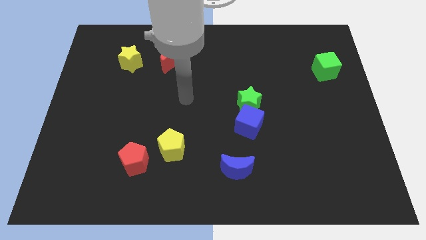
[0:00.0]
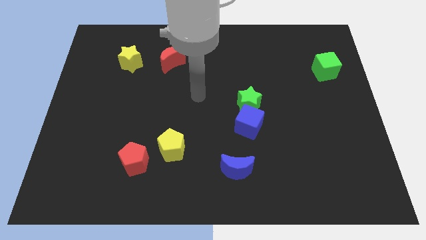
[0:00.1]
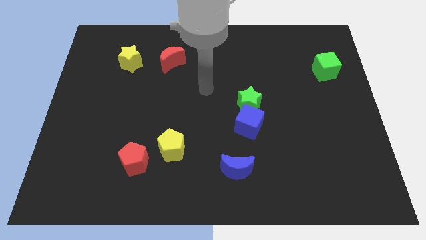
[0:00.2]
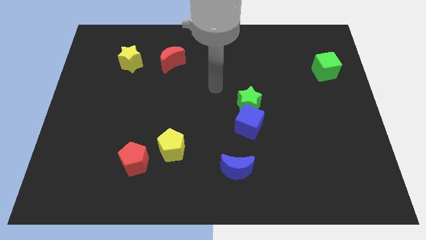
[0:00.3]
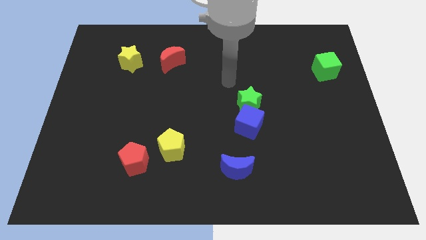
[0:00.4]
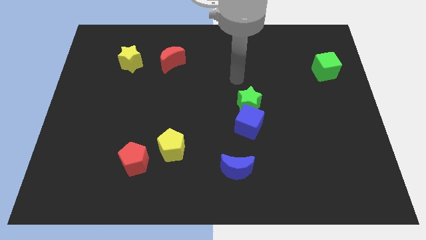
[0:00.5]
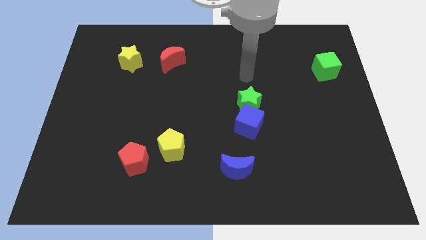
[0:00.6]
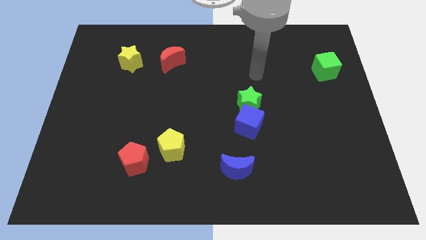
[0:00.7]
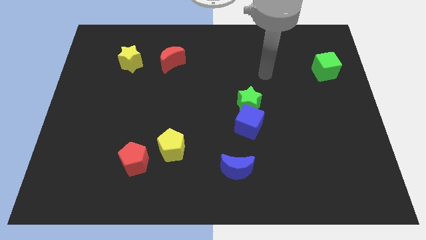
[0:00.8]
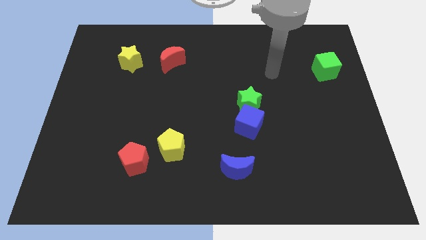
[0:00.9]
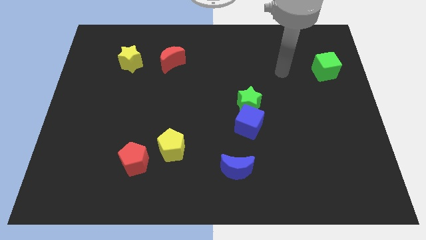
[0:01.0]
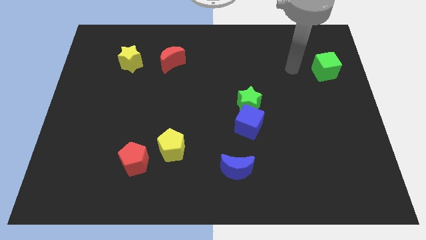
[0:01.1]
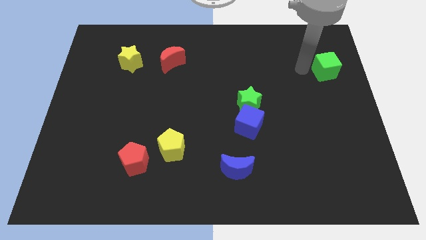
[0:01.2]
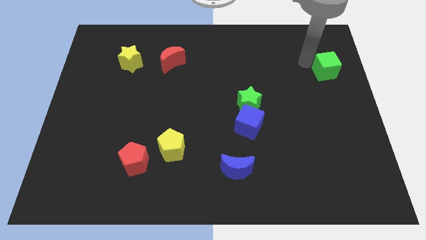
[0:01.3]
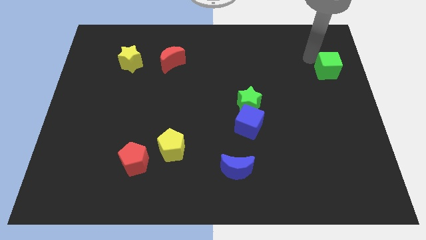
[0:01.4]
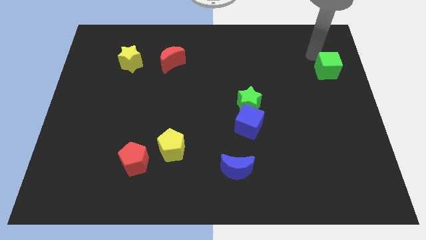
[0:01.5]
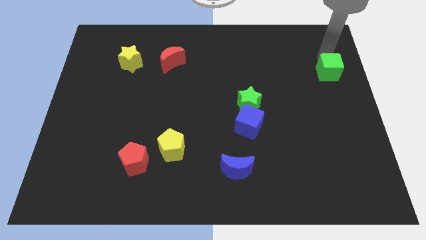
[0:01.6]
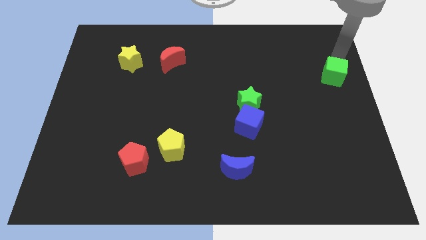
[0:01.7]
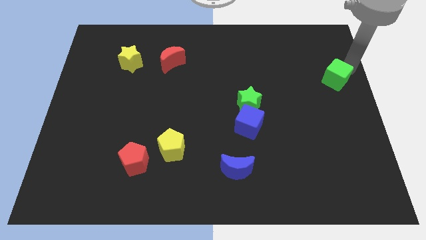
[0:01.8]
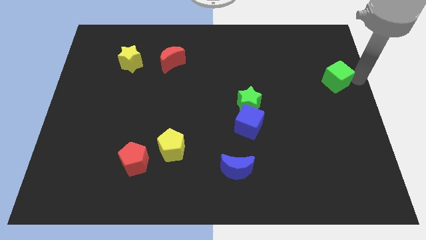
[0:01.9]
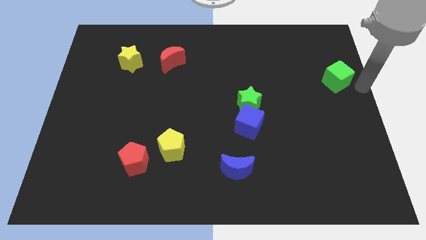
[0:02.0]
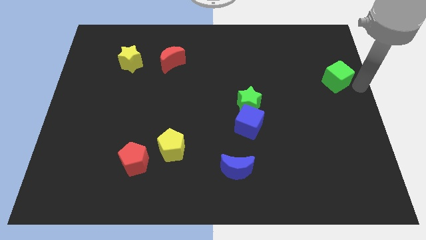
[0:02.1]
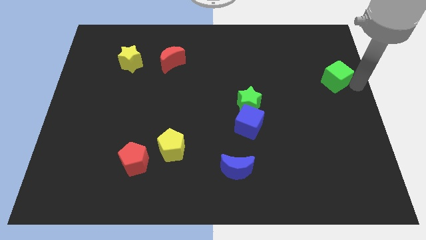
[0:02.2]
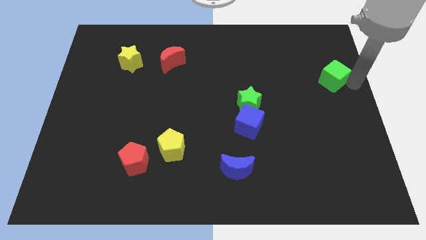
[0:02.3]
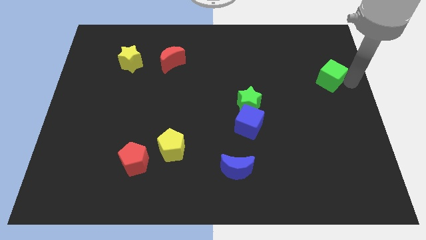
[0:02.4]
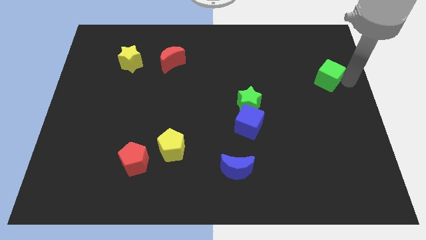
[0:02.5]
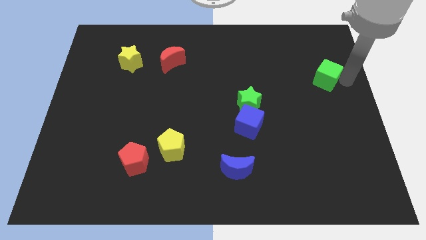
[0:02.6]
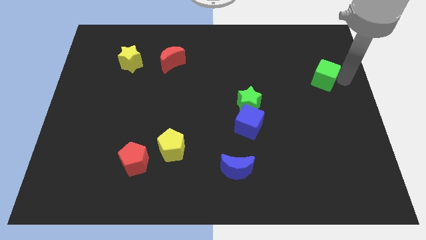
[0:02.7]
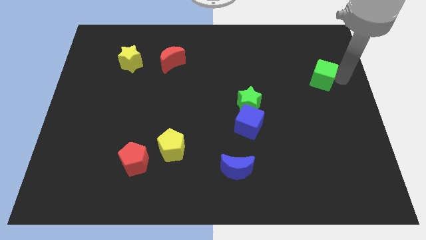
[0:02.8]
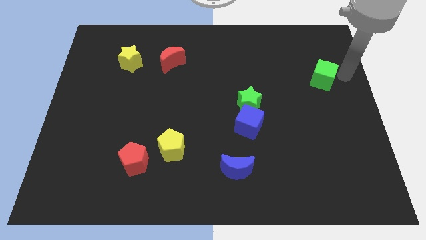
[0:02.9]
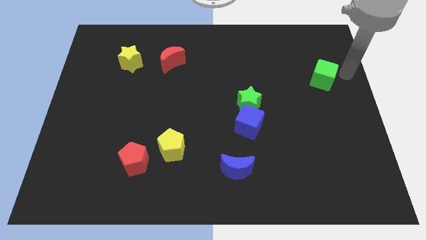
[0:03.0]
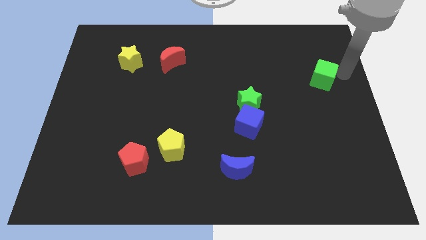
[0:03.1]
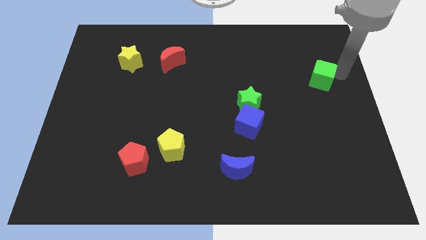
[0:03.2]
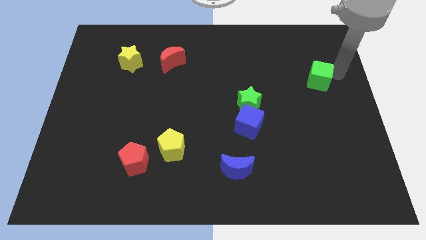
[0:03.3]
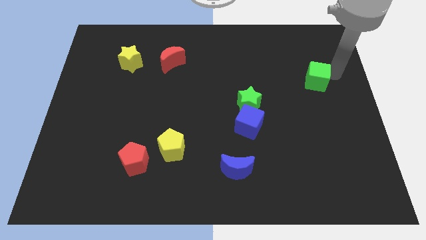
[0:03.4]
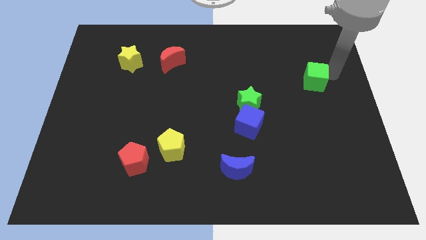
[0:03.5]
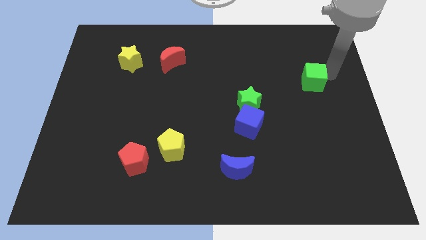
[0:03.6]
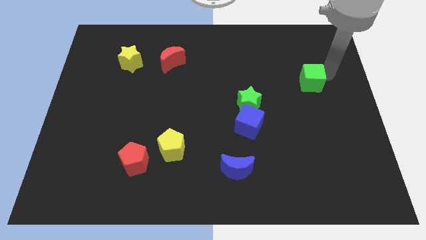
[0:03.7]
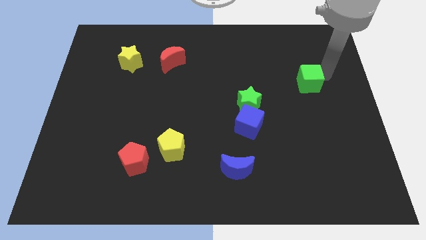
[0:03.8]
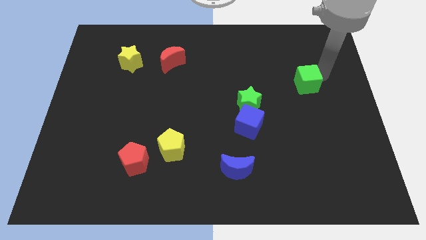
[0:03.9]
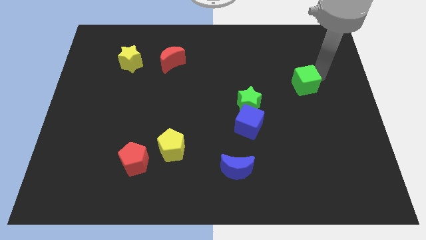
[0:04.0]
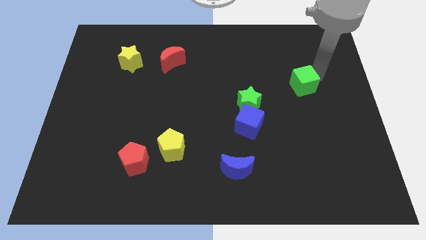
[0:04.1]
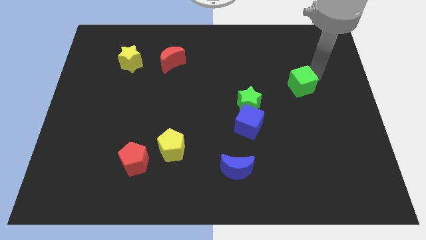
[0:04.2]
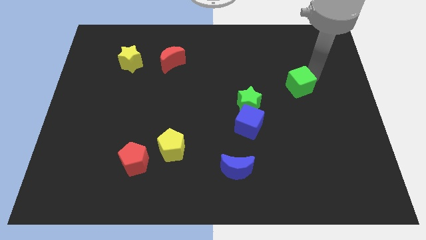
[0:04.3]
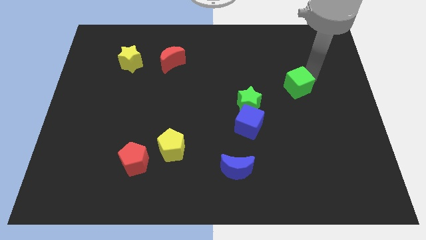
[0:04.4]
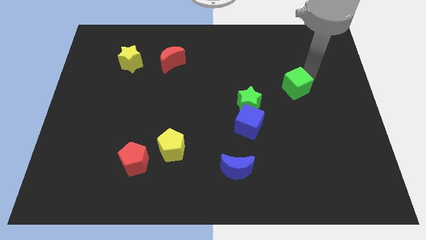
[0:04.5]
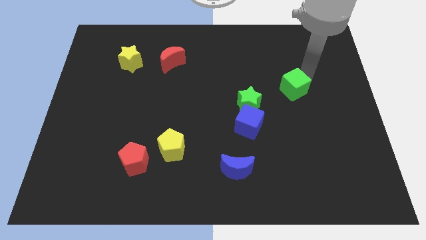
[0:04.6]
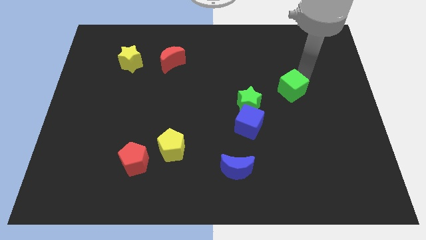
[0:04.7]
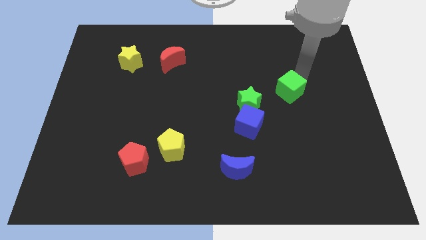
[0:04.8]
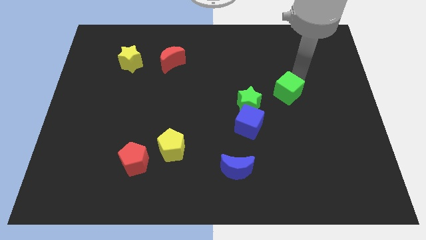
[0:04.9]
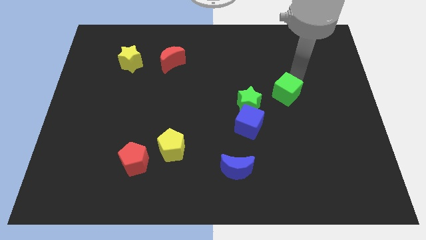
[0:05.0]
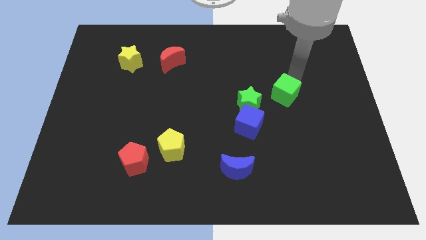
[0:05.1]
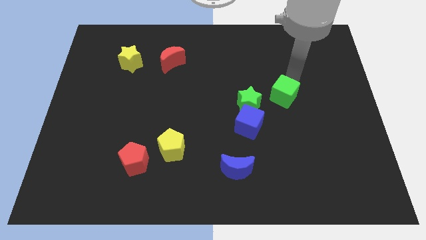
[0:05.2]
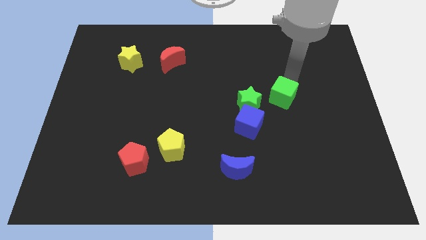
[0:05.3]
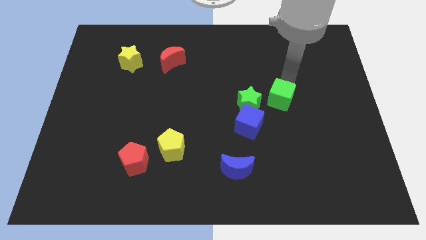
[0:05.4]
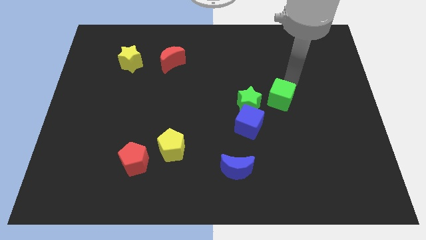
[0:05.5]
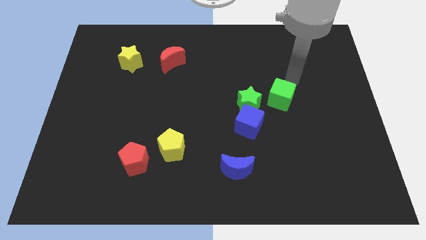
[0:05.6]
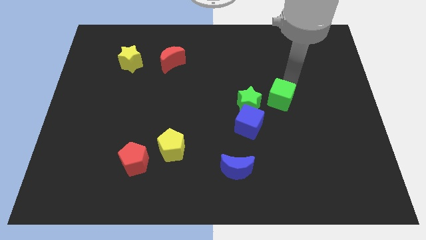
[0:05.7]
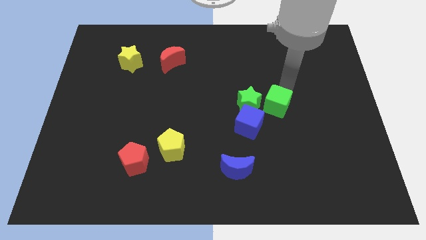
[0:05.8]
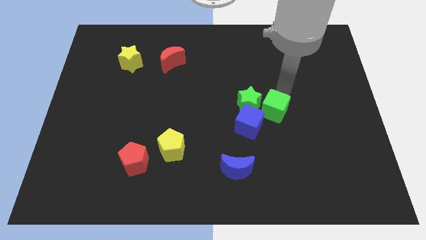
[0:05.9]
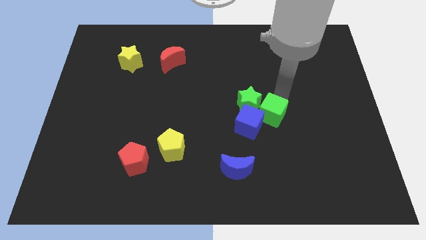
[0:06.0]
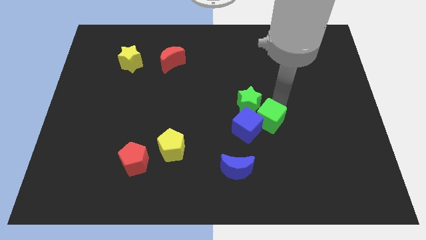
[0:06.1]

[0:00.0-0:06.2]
move the green cube towards the blue cube

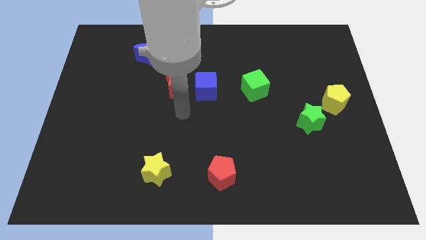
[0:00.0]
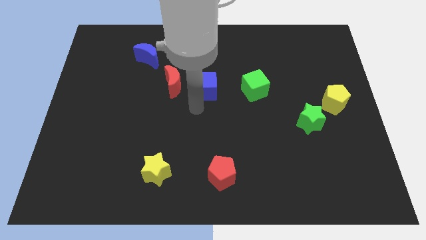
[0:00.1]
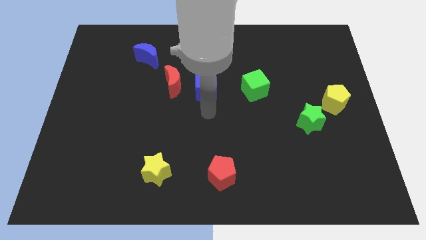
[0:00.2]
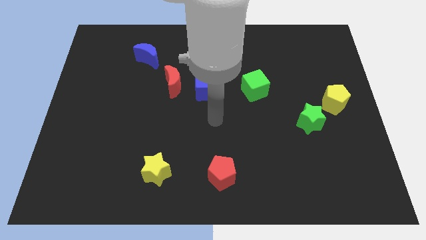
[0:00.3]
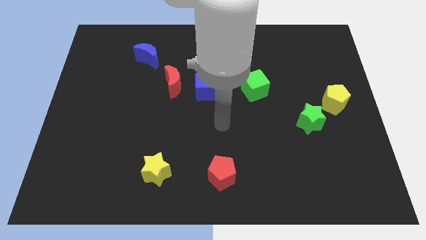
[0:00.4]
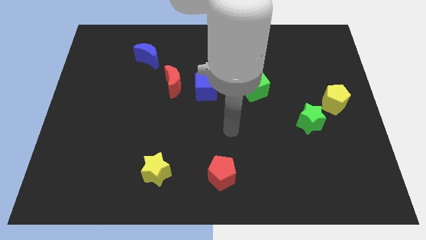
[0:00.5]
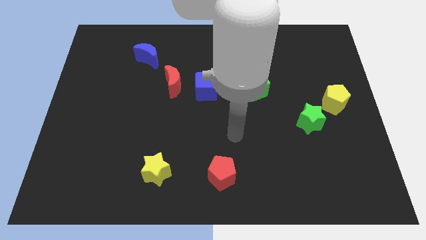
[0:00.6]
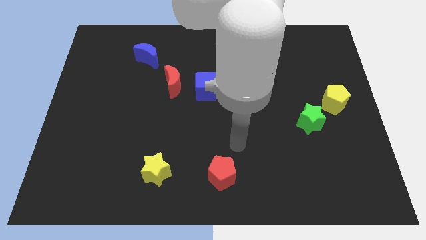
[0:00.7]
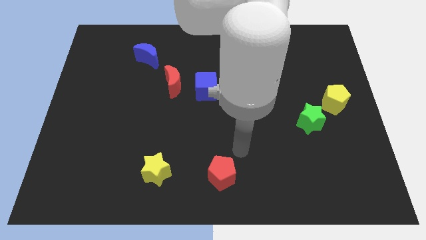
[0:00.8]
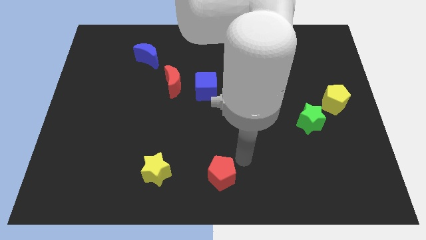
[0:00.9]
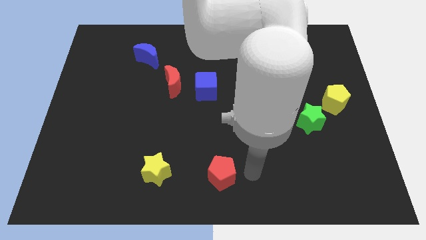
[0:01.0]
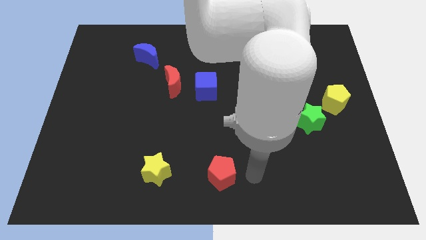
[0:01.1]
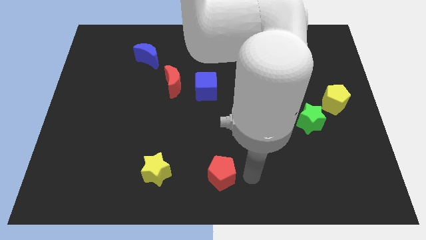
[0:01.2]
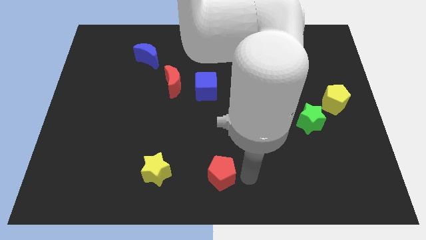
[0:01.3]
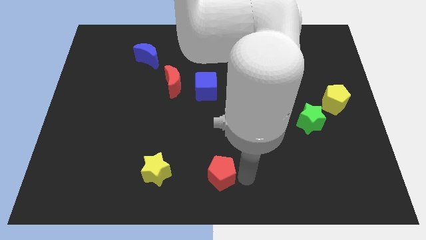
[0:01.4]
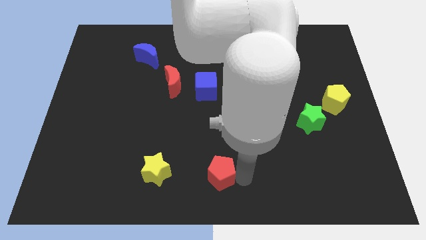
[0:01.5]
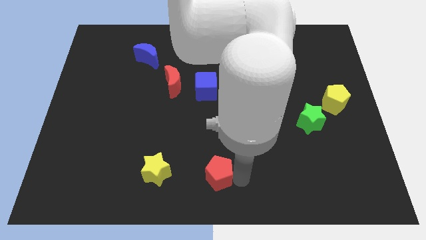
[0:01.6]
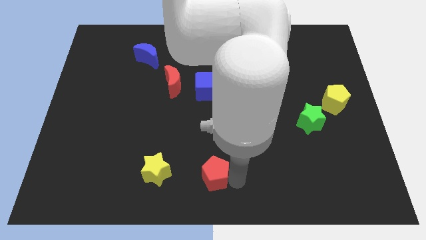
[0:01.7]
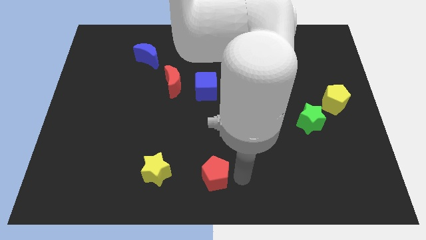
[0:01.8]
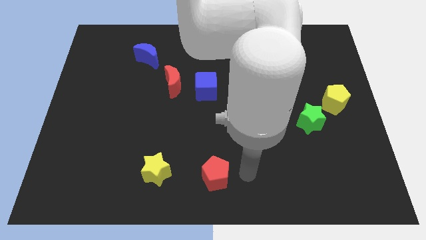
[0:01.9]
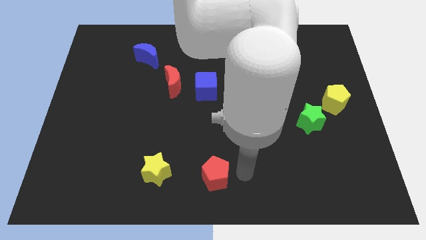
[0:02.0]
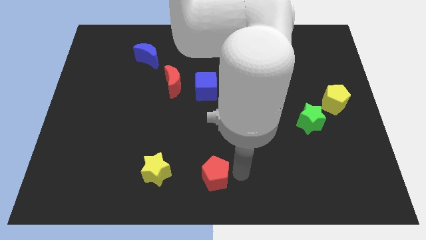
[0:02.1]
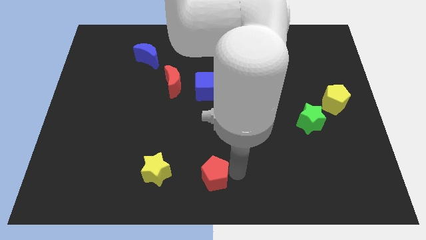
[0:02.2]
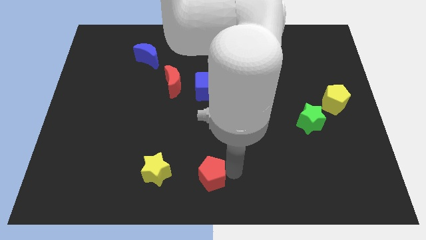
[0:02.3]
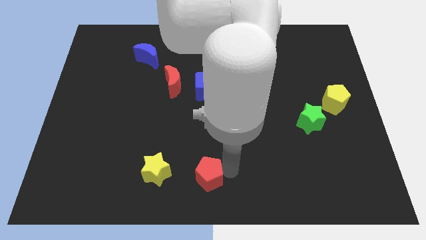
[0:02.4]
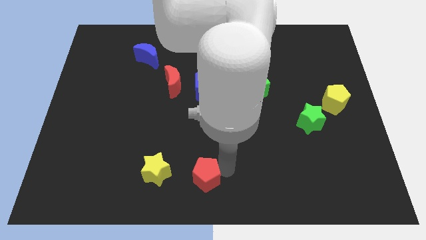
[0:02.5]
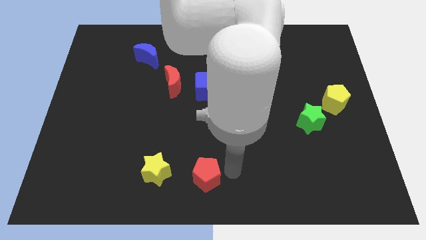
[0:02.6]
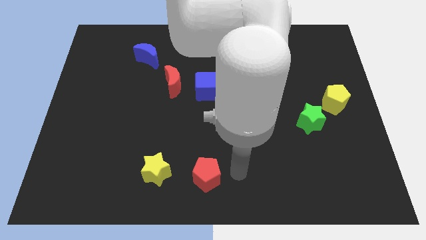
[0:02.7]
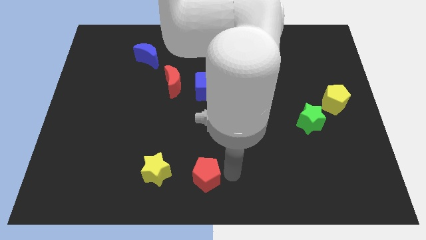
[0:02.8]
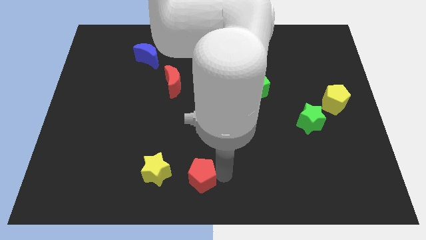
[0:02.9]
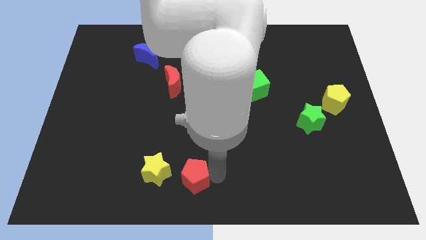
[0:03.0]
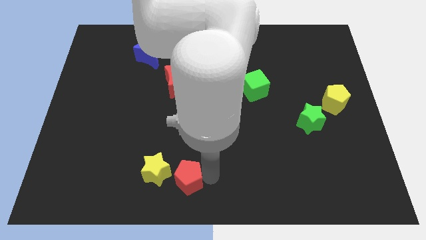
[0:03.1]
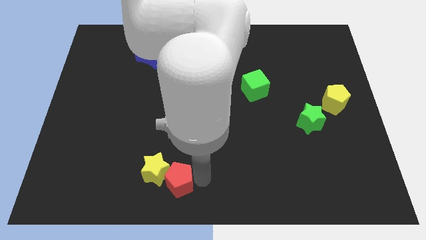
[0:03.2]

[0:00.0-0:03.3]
move the red pentagon next to the yellow star
